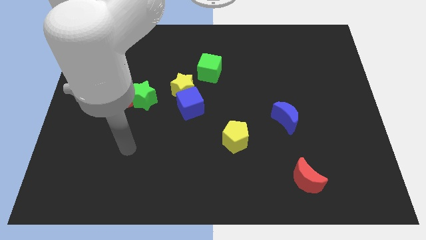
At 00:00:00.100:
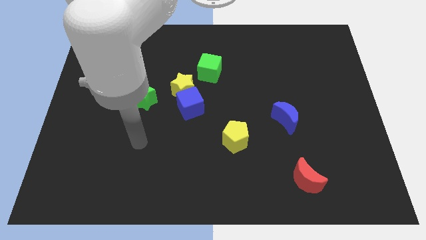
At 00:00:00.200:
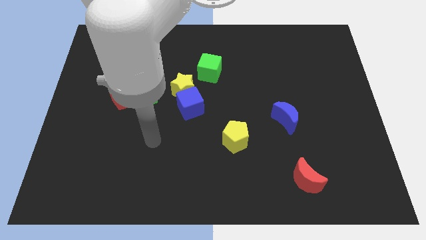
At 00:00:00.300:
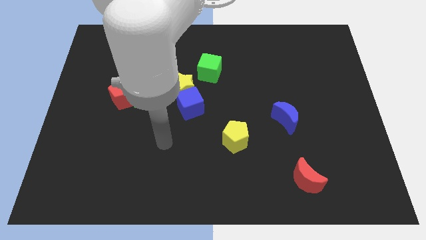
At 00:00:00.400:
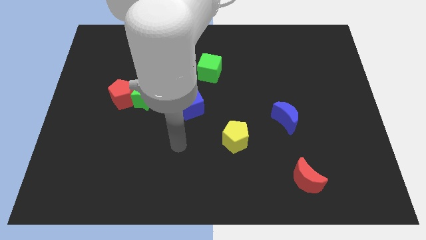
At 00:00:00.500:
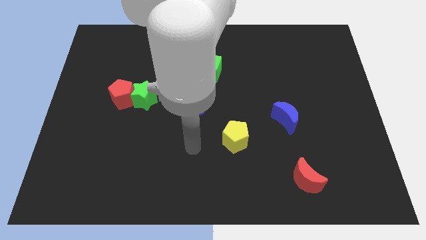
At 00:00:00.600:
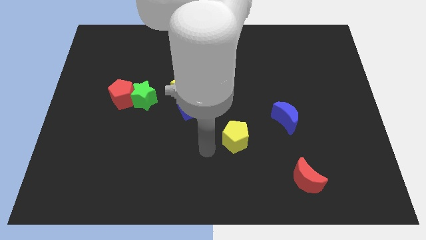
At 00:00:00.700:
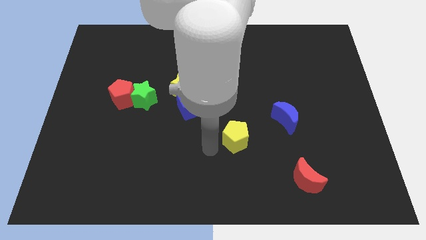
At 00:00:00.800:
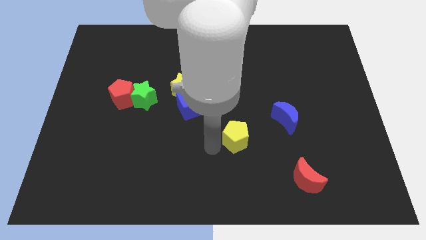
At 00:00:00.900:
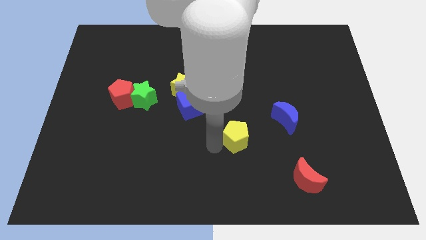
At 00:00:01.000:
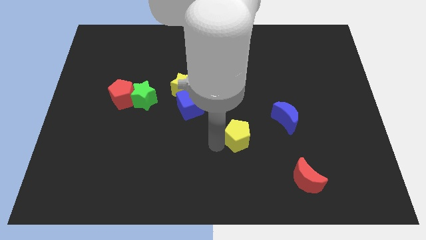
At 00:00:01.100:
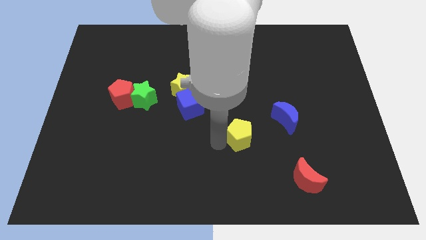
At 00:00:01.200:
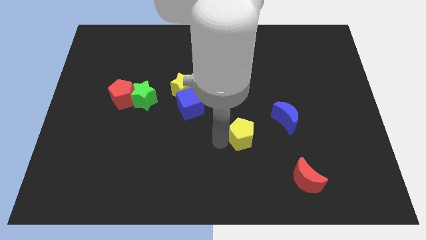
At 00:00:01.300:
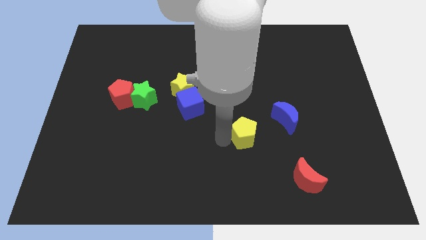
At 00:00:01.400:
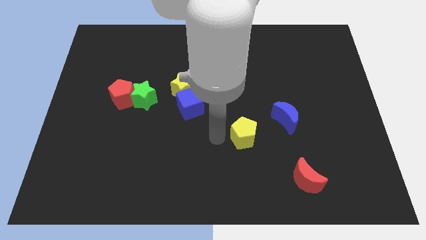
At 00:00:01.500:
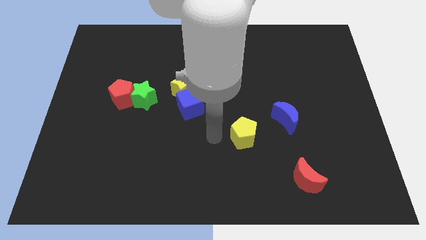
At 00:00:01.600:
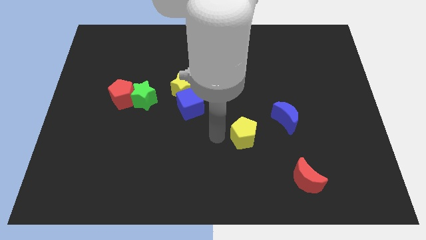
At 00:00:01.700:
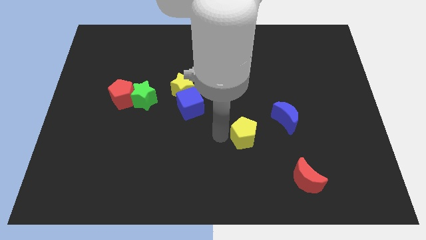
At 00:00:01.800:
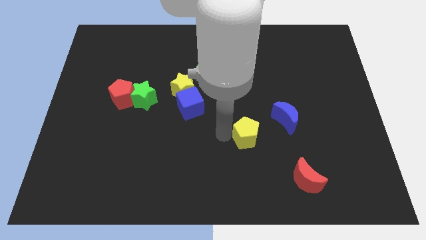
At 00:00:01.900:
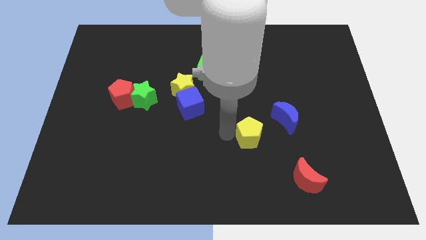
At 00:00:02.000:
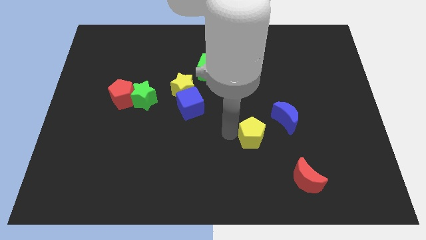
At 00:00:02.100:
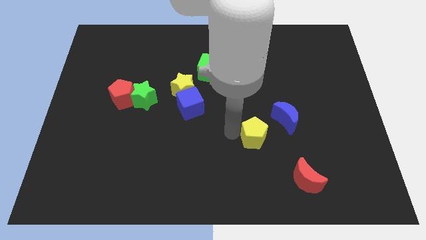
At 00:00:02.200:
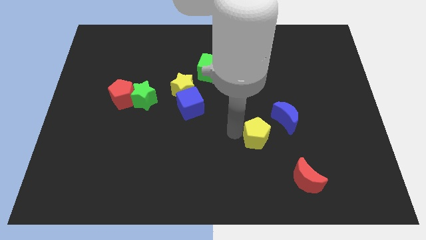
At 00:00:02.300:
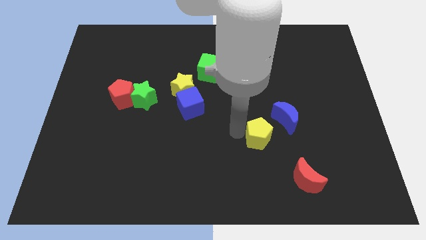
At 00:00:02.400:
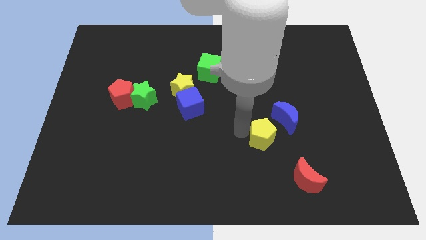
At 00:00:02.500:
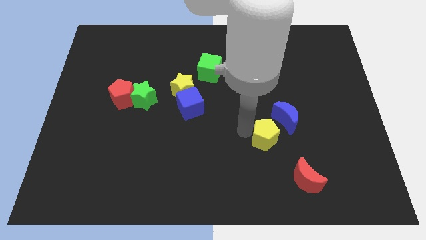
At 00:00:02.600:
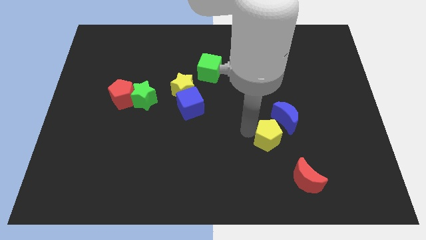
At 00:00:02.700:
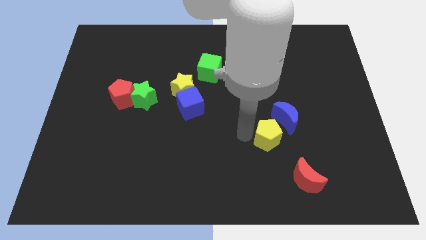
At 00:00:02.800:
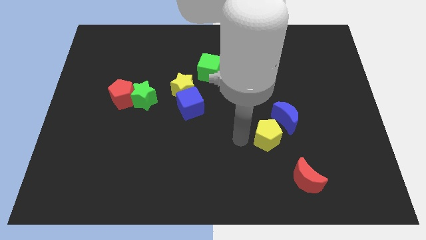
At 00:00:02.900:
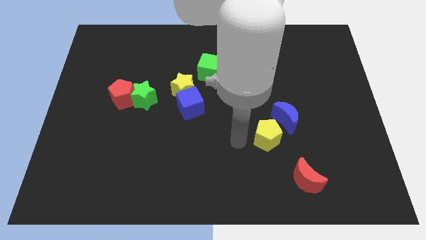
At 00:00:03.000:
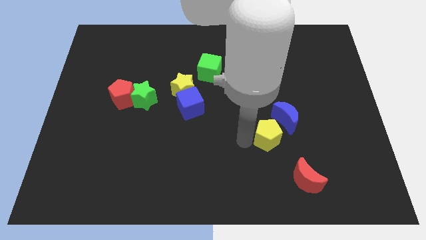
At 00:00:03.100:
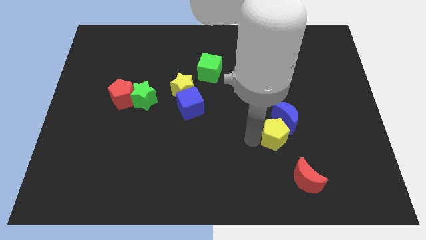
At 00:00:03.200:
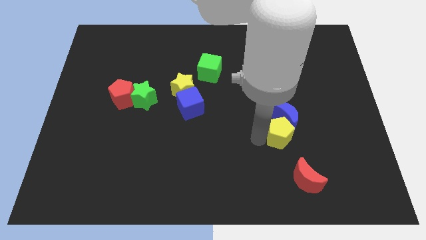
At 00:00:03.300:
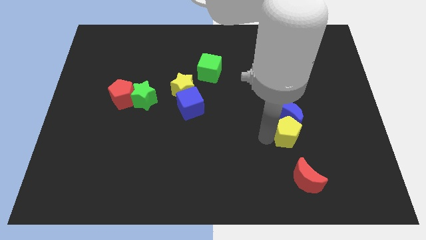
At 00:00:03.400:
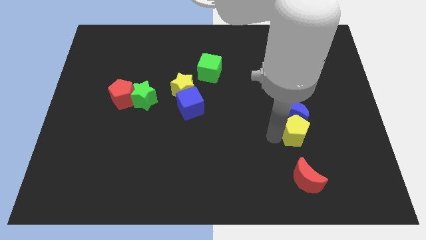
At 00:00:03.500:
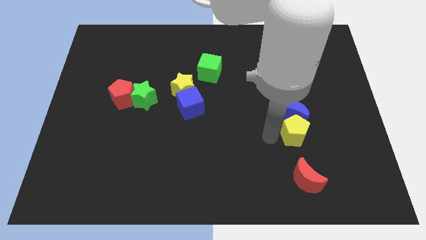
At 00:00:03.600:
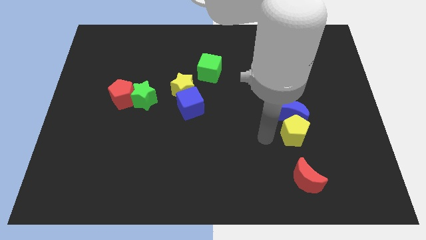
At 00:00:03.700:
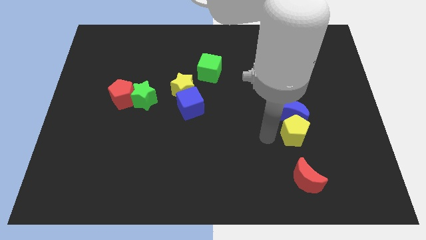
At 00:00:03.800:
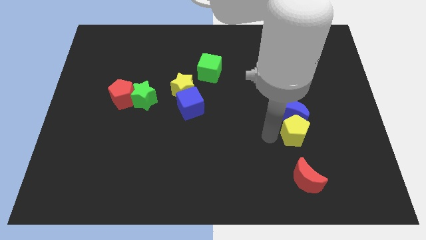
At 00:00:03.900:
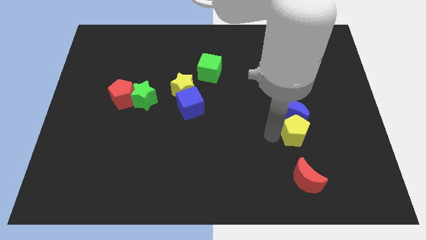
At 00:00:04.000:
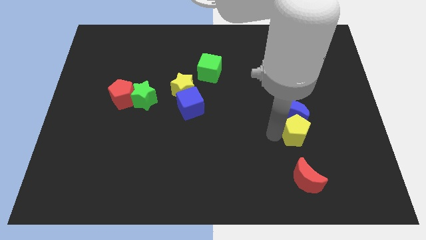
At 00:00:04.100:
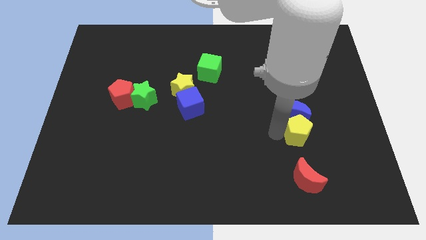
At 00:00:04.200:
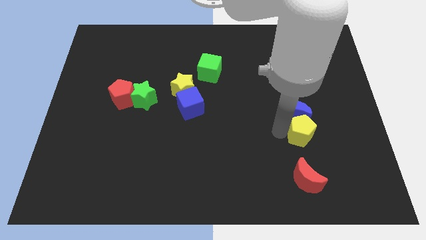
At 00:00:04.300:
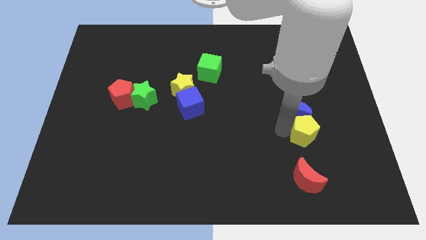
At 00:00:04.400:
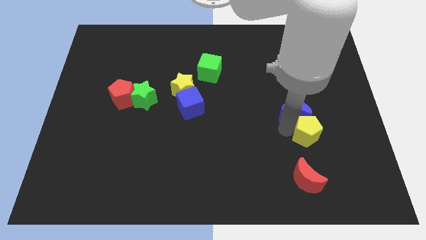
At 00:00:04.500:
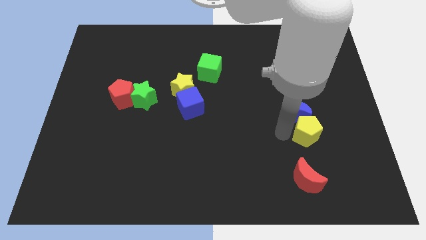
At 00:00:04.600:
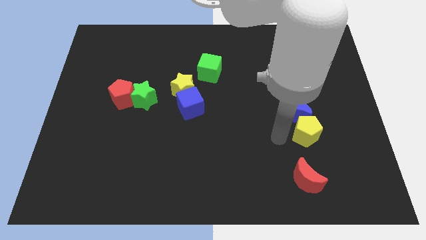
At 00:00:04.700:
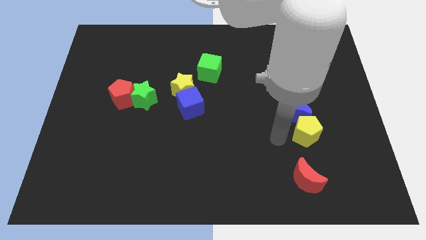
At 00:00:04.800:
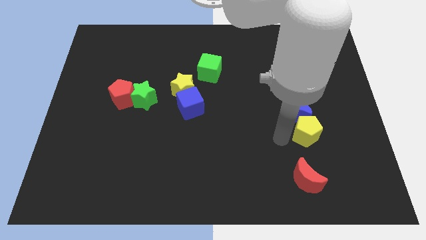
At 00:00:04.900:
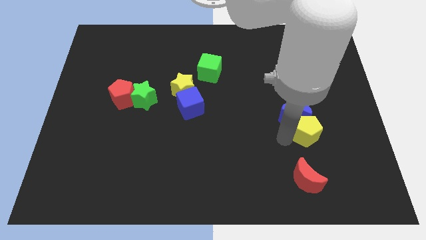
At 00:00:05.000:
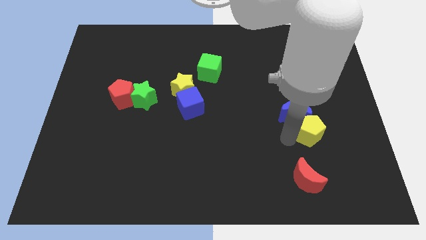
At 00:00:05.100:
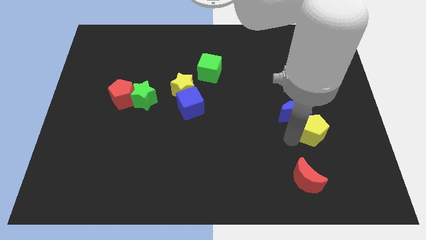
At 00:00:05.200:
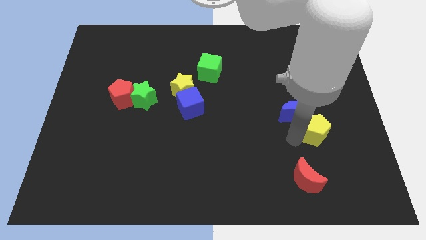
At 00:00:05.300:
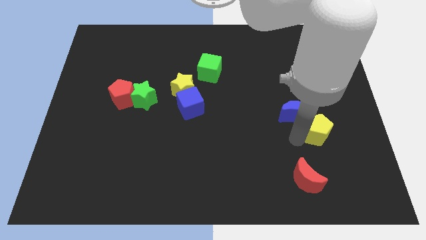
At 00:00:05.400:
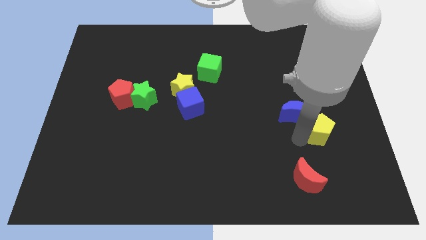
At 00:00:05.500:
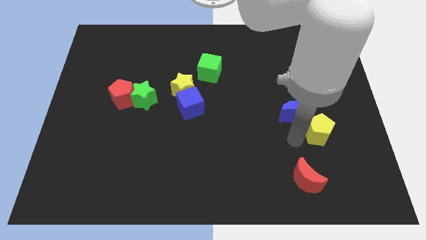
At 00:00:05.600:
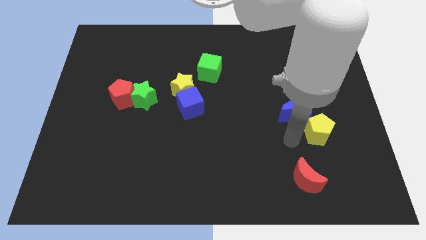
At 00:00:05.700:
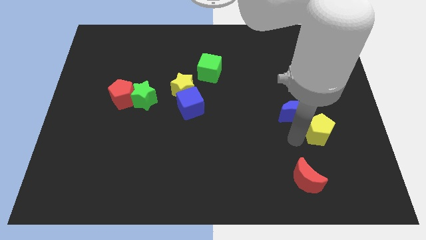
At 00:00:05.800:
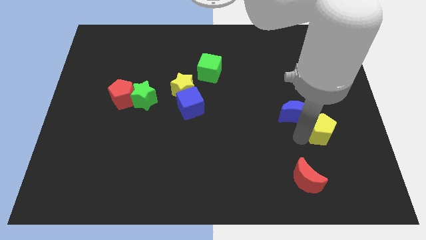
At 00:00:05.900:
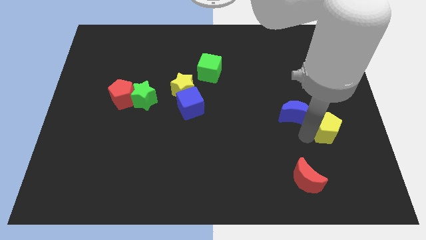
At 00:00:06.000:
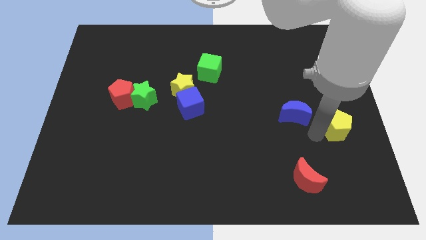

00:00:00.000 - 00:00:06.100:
put the yellow pentagon to the right side of the board

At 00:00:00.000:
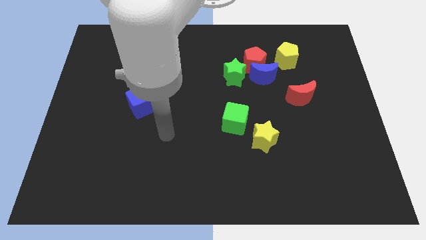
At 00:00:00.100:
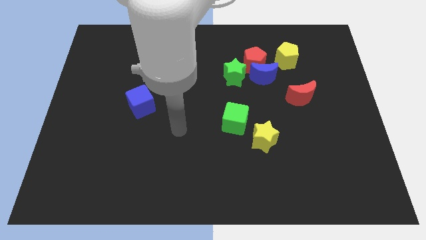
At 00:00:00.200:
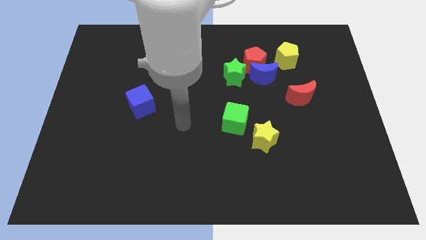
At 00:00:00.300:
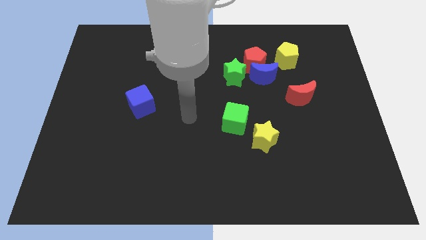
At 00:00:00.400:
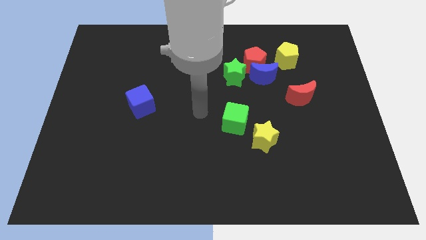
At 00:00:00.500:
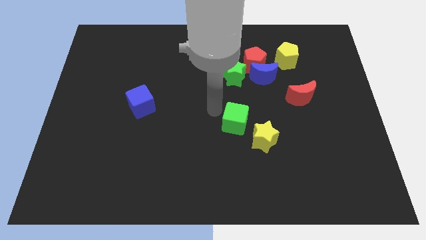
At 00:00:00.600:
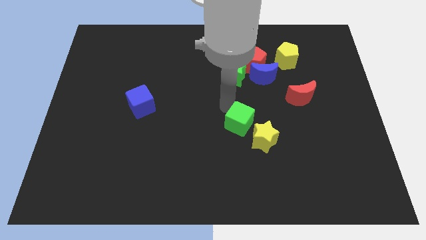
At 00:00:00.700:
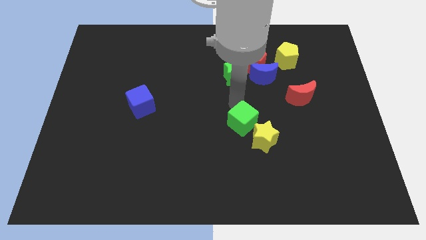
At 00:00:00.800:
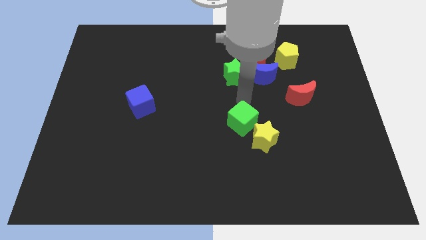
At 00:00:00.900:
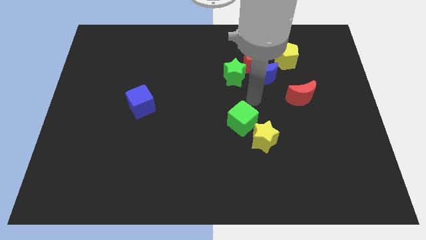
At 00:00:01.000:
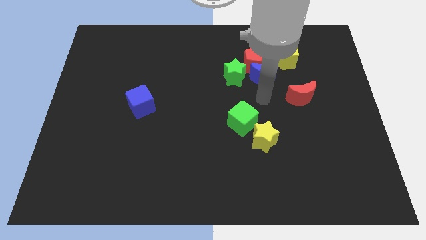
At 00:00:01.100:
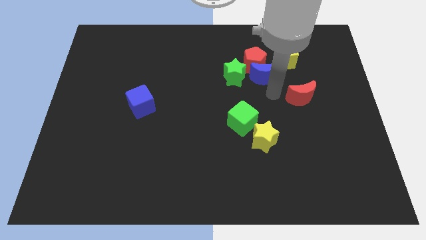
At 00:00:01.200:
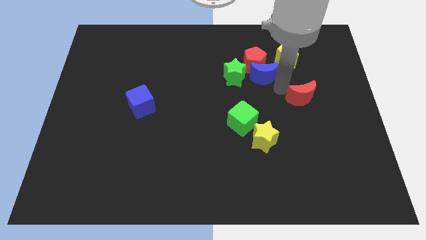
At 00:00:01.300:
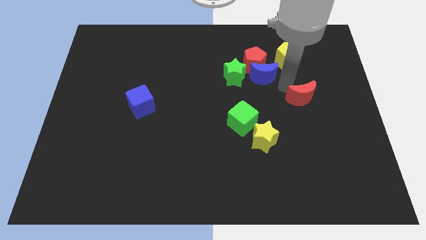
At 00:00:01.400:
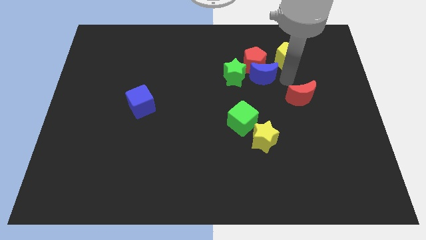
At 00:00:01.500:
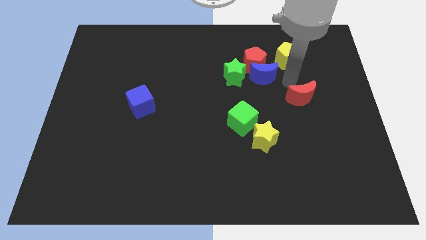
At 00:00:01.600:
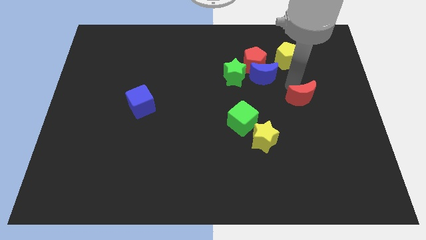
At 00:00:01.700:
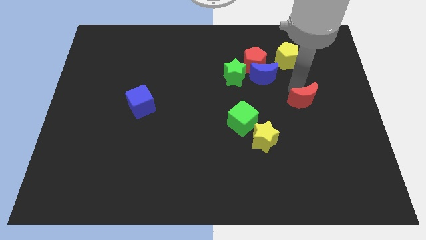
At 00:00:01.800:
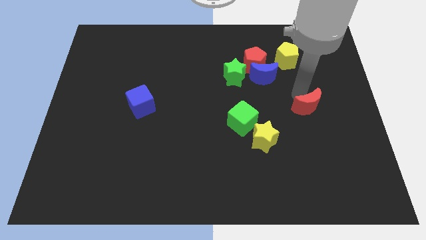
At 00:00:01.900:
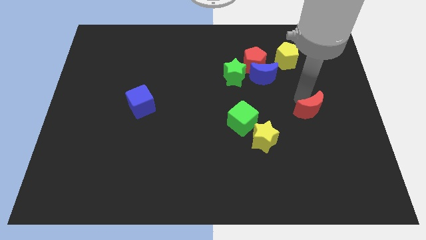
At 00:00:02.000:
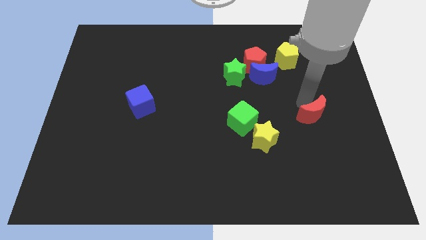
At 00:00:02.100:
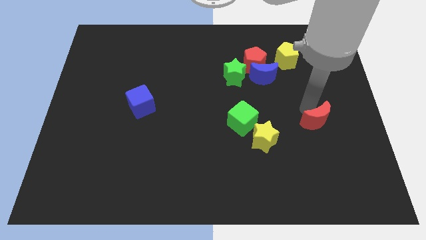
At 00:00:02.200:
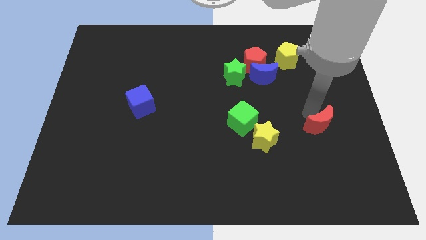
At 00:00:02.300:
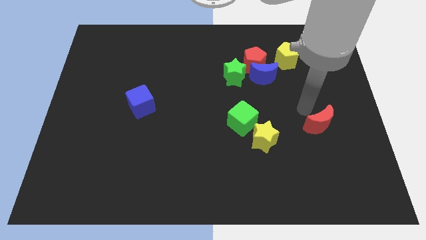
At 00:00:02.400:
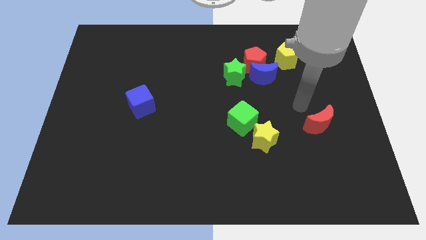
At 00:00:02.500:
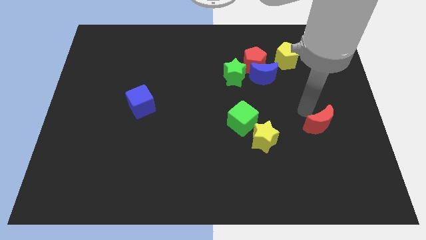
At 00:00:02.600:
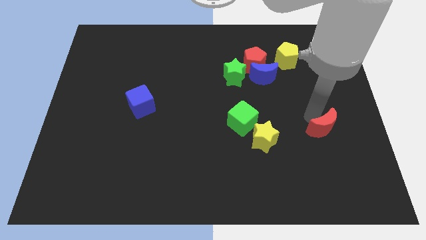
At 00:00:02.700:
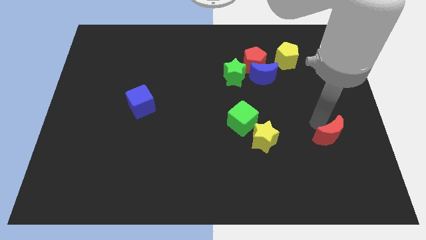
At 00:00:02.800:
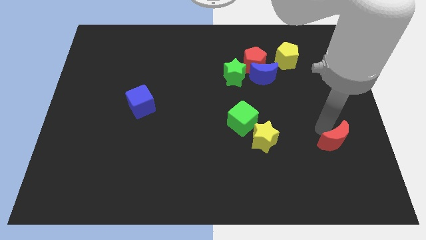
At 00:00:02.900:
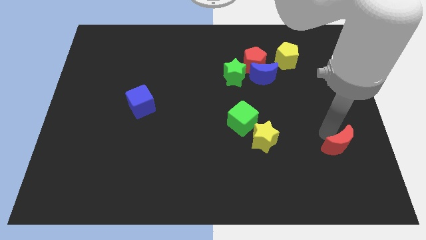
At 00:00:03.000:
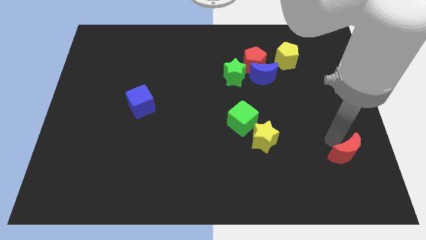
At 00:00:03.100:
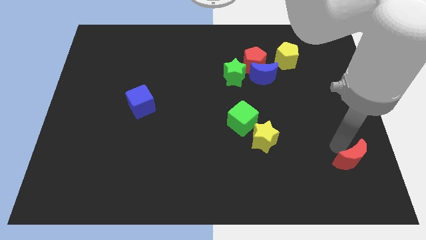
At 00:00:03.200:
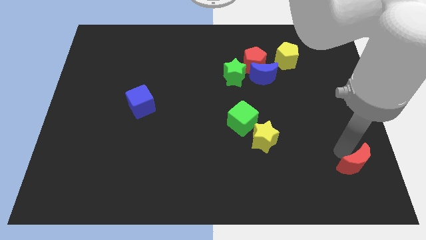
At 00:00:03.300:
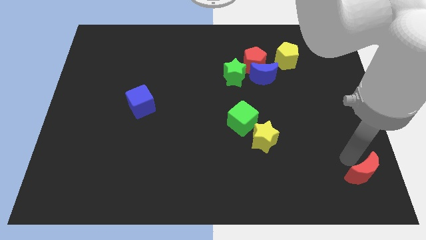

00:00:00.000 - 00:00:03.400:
put the red moon to the bottom right
